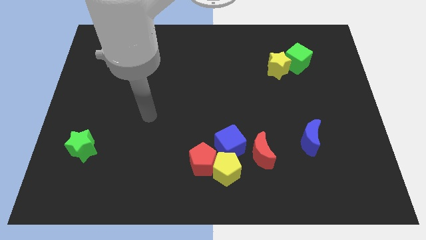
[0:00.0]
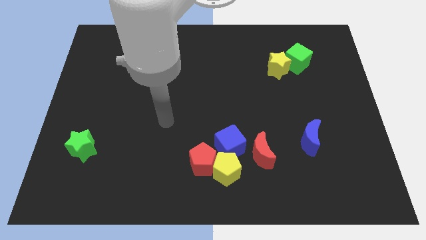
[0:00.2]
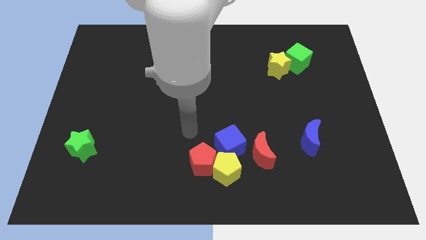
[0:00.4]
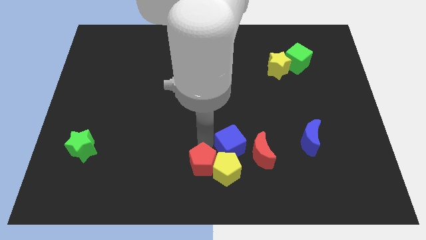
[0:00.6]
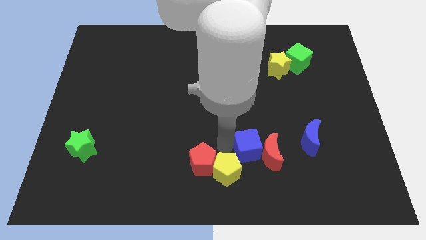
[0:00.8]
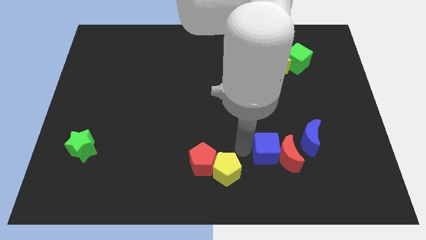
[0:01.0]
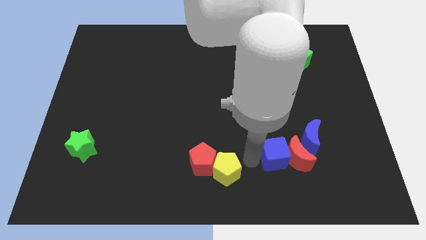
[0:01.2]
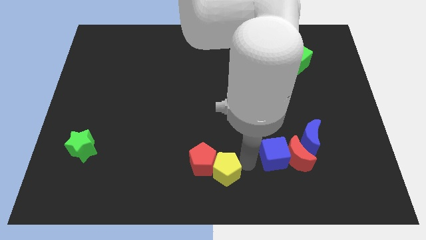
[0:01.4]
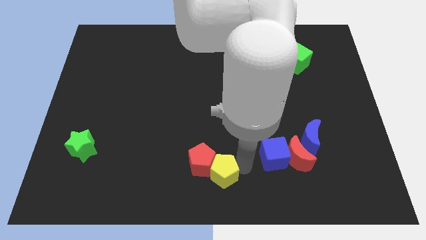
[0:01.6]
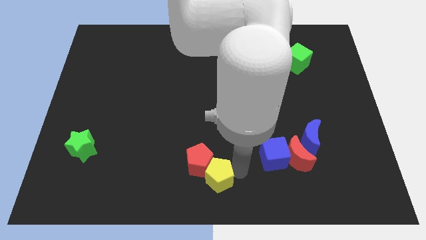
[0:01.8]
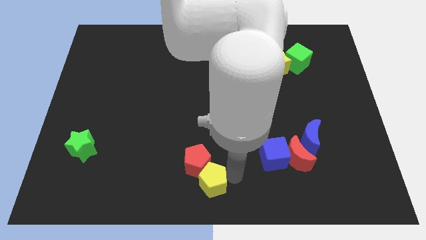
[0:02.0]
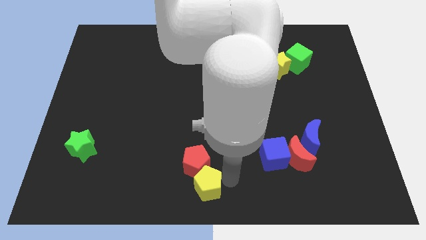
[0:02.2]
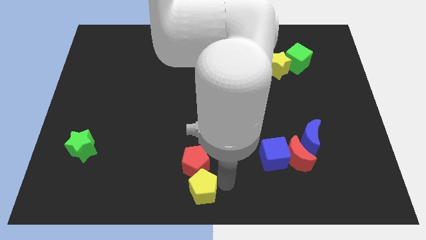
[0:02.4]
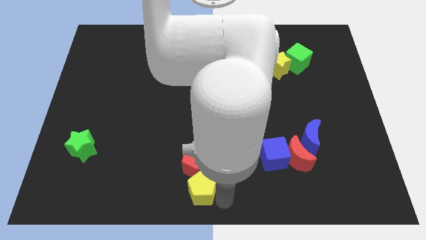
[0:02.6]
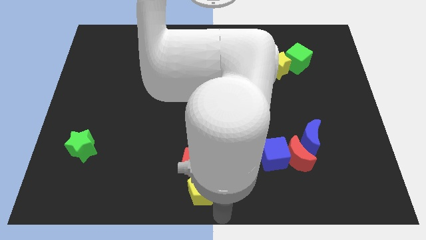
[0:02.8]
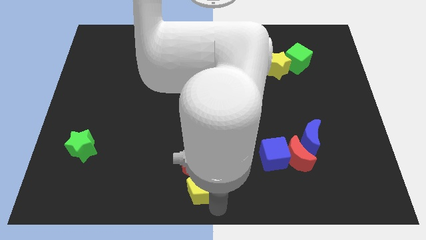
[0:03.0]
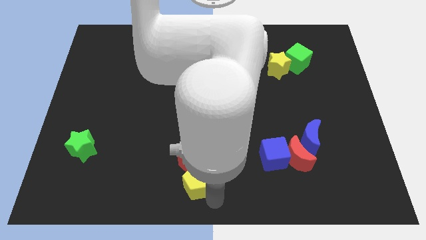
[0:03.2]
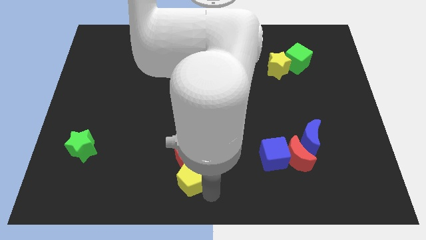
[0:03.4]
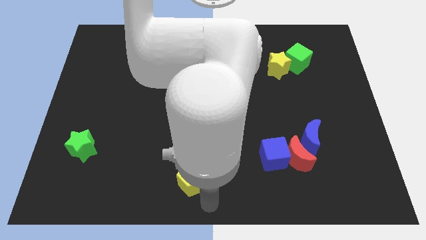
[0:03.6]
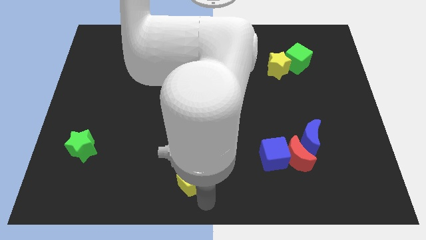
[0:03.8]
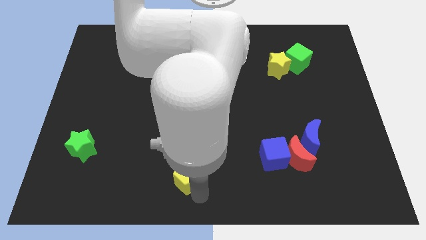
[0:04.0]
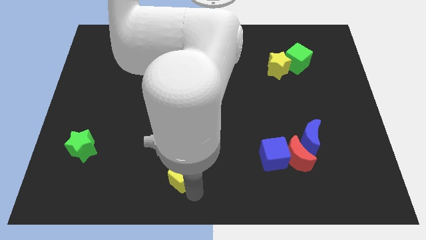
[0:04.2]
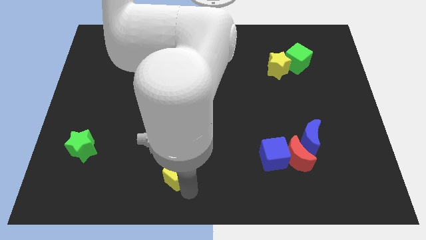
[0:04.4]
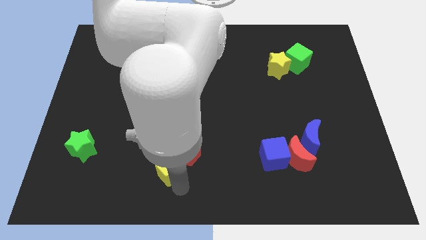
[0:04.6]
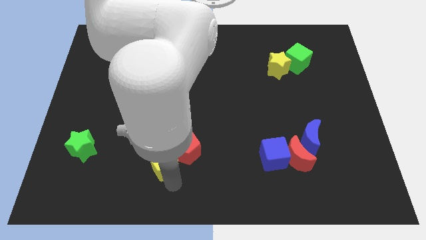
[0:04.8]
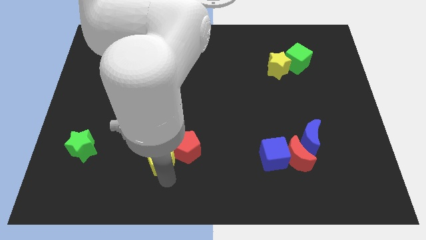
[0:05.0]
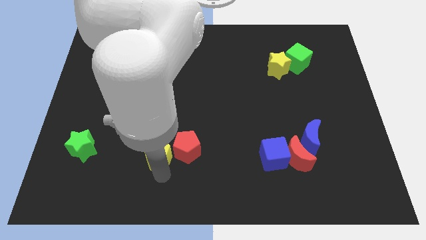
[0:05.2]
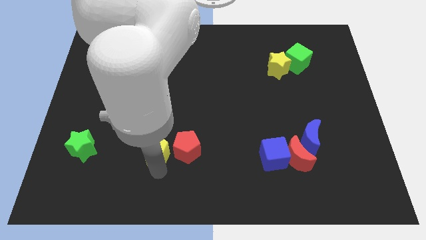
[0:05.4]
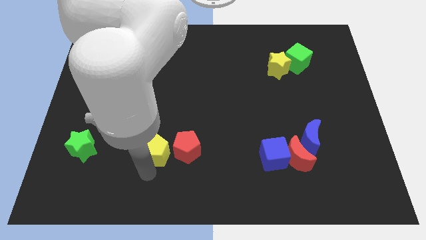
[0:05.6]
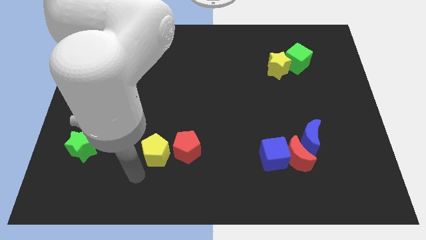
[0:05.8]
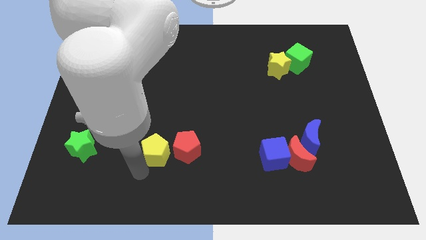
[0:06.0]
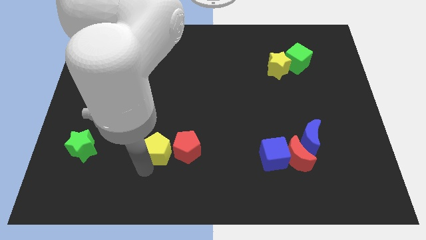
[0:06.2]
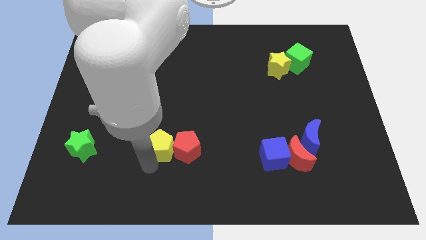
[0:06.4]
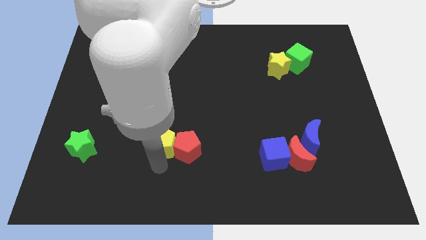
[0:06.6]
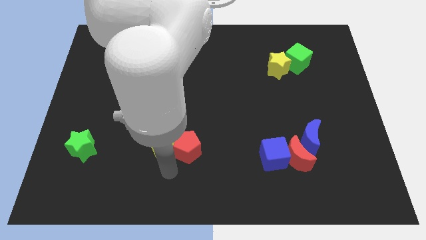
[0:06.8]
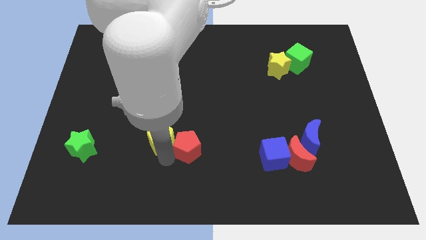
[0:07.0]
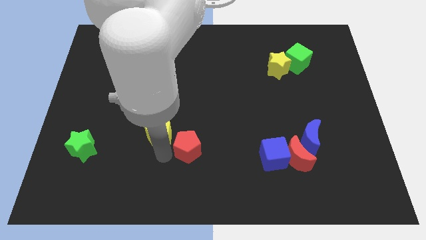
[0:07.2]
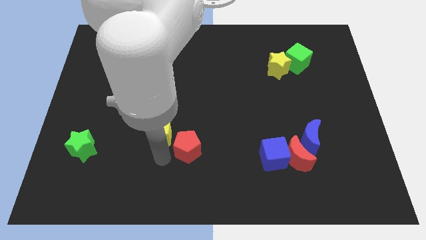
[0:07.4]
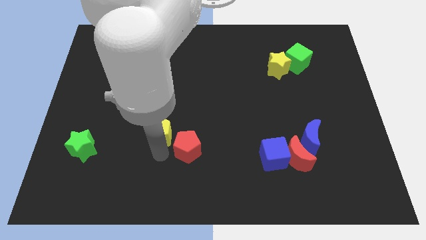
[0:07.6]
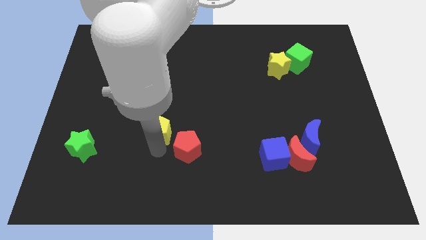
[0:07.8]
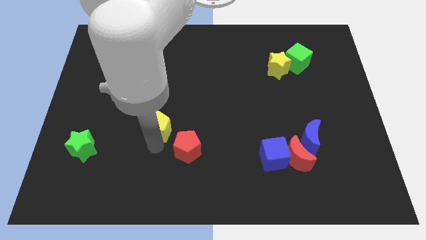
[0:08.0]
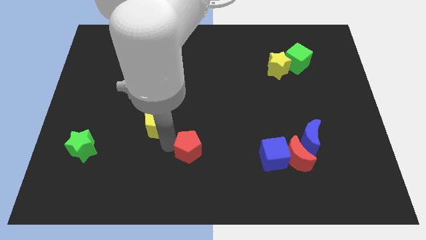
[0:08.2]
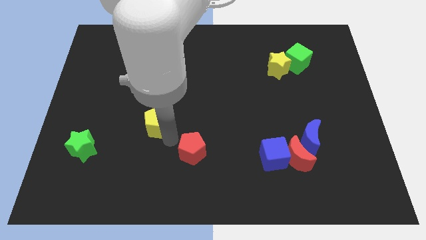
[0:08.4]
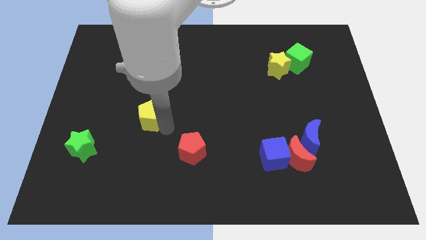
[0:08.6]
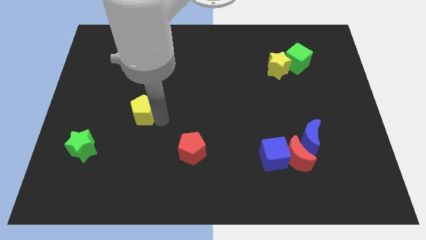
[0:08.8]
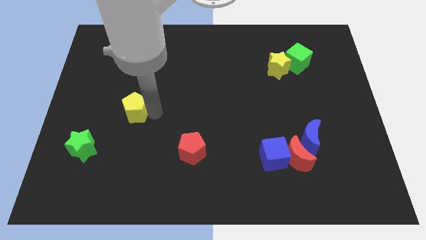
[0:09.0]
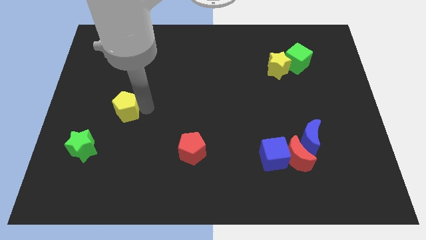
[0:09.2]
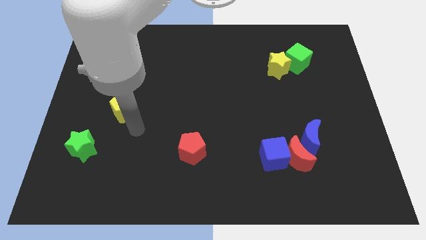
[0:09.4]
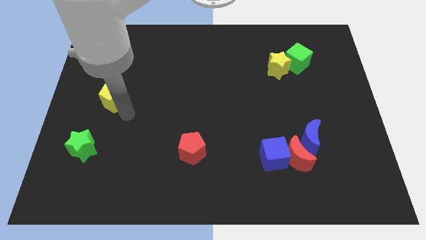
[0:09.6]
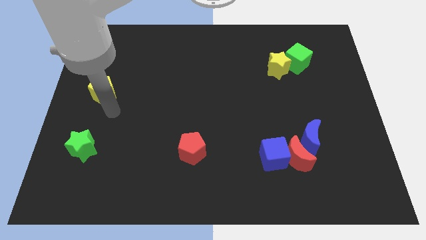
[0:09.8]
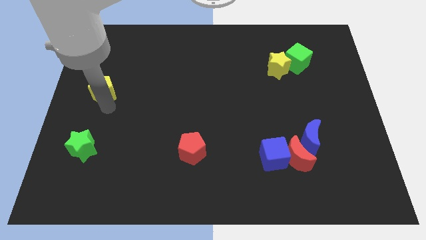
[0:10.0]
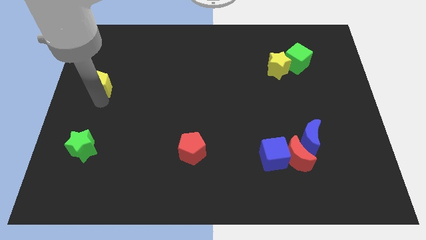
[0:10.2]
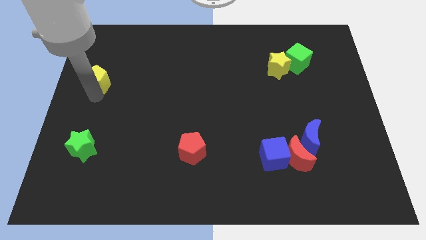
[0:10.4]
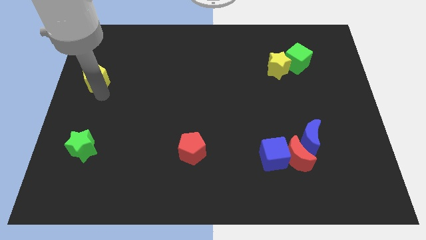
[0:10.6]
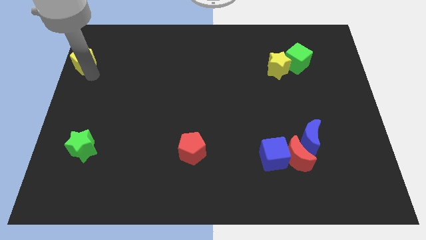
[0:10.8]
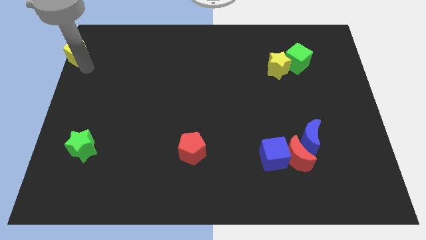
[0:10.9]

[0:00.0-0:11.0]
push the yellow pentagon to the top left
